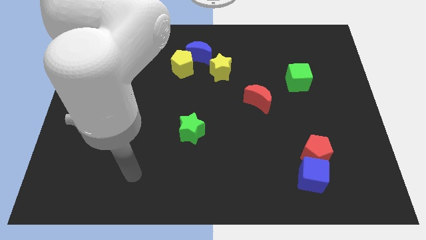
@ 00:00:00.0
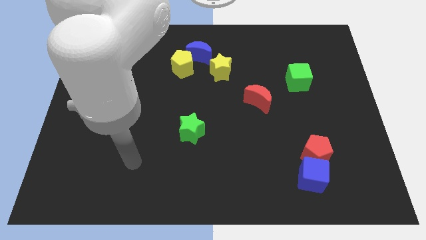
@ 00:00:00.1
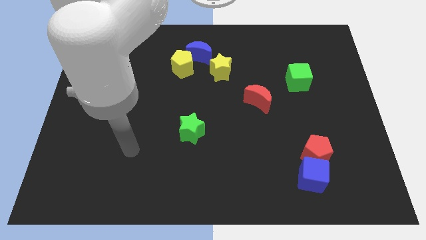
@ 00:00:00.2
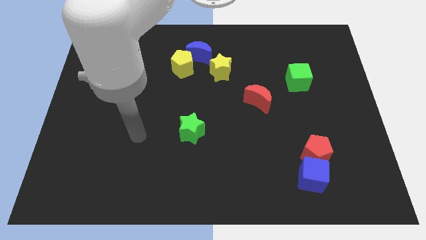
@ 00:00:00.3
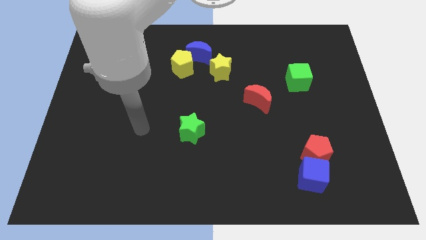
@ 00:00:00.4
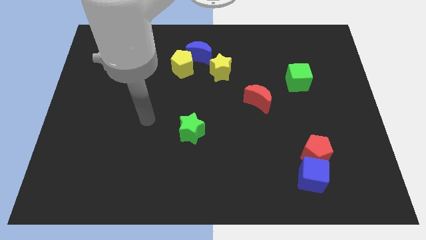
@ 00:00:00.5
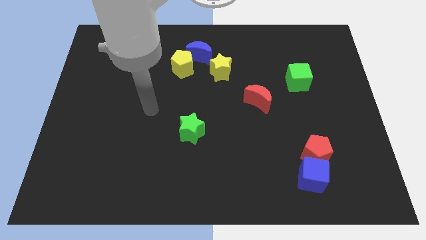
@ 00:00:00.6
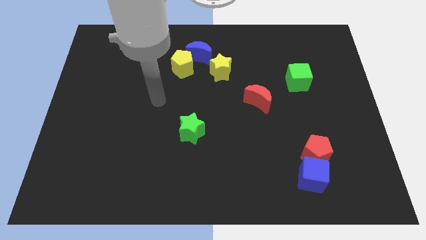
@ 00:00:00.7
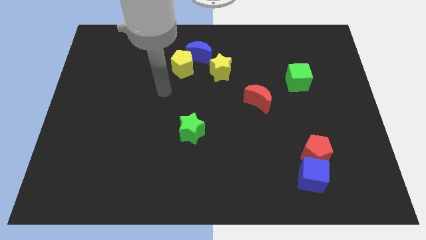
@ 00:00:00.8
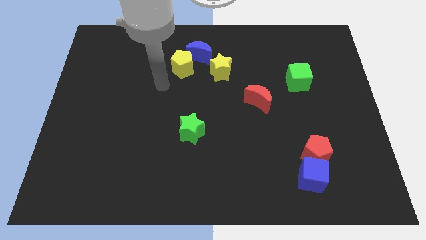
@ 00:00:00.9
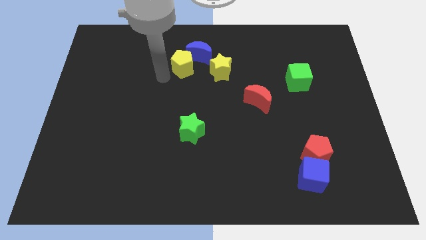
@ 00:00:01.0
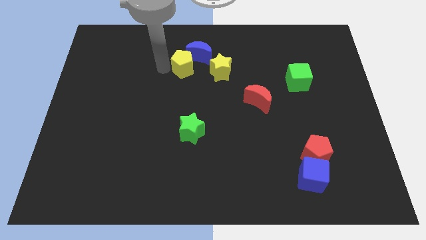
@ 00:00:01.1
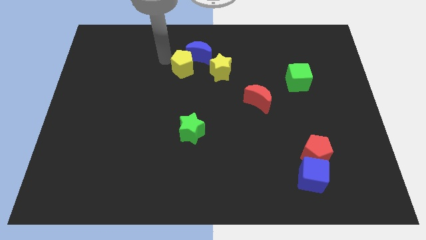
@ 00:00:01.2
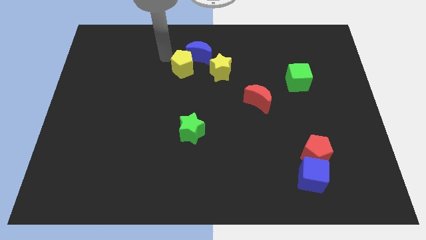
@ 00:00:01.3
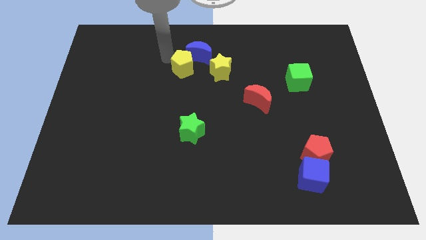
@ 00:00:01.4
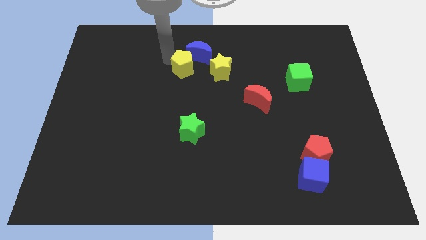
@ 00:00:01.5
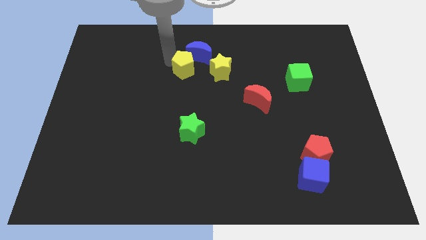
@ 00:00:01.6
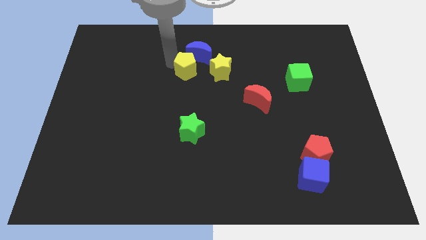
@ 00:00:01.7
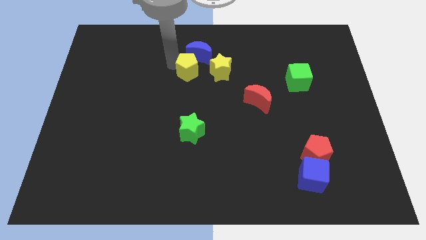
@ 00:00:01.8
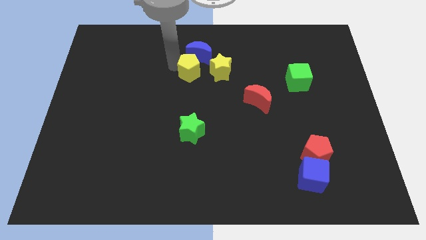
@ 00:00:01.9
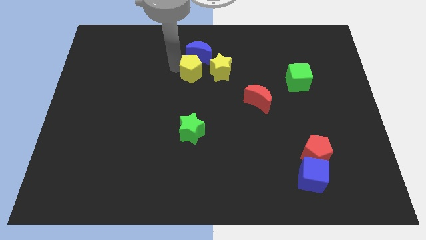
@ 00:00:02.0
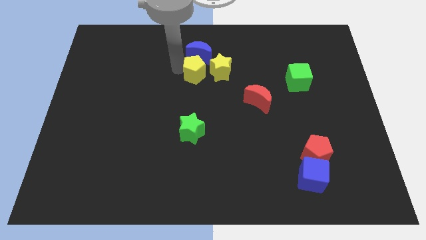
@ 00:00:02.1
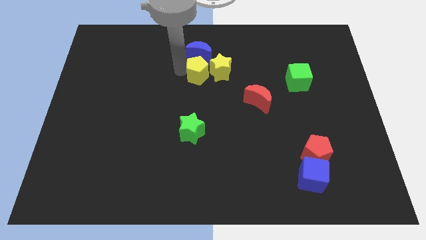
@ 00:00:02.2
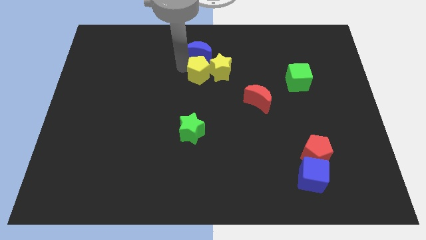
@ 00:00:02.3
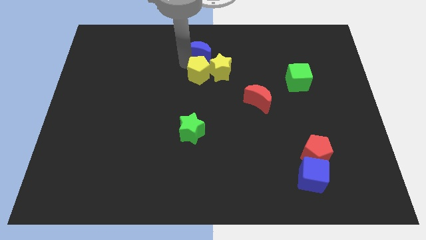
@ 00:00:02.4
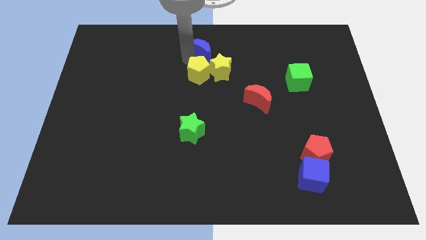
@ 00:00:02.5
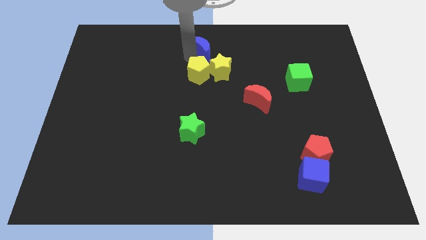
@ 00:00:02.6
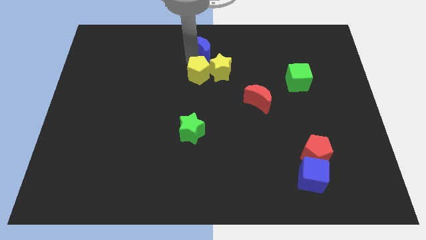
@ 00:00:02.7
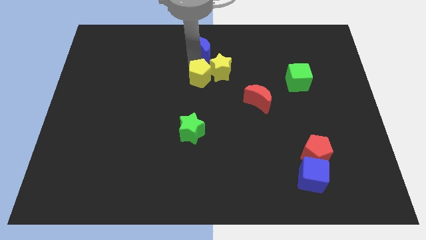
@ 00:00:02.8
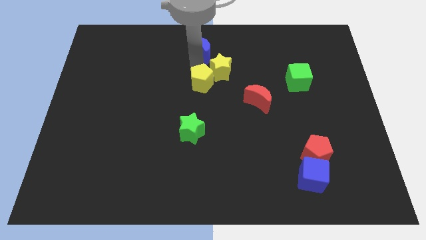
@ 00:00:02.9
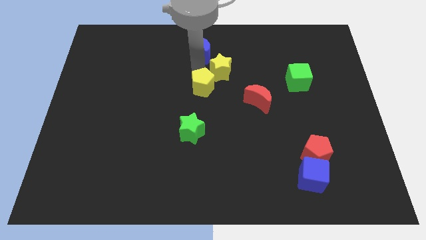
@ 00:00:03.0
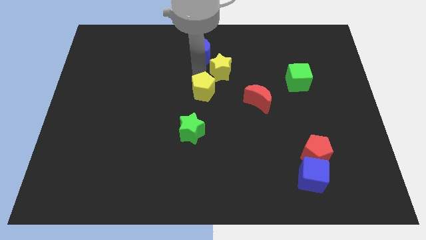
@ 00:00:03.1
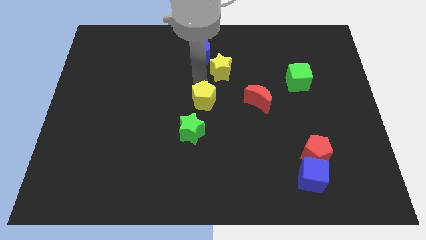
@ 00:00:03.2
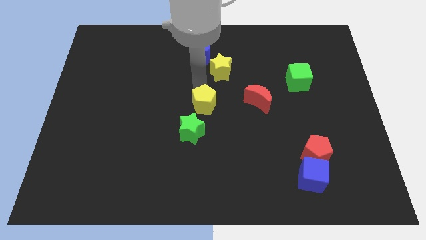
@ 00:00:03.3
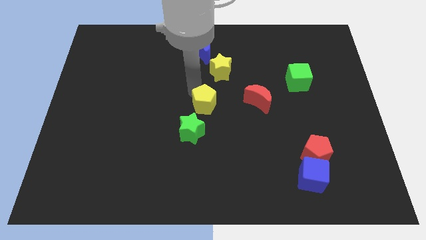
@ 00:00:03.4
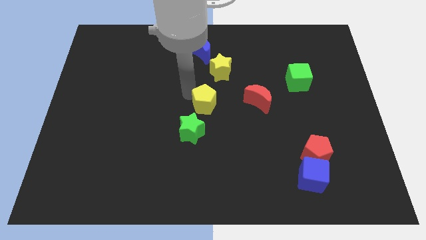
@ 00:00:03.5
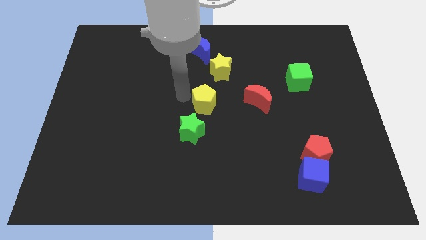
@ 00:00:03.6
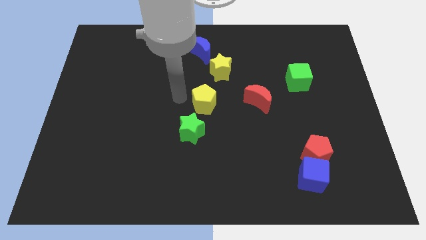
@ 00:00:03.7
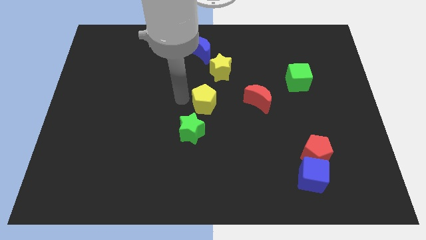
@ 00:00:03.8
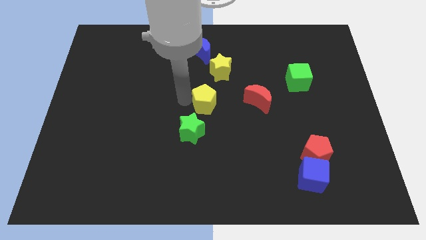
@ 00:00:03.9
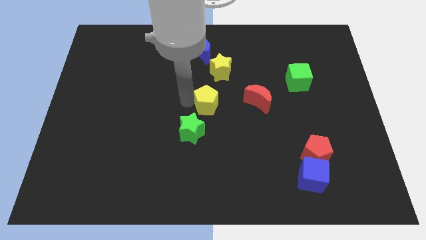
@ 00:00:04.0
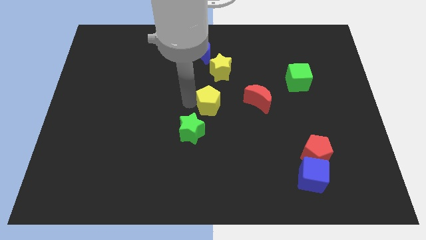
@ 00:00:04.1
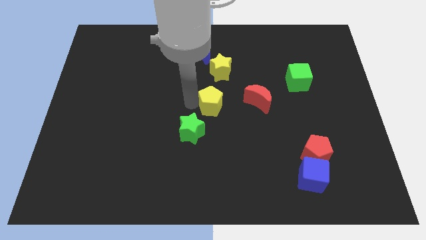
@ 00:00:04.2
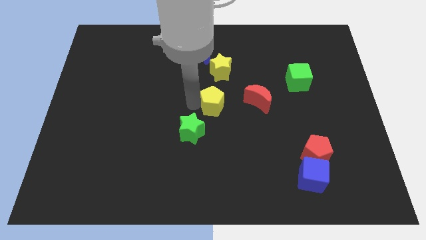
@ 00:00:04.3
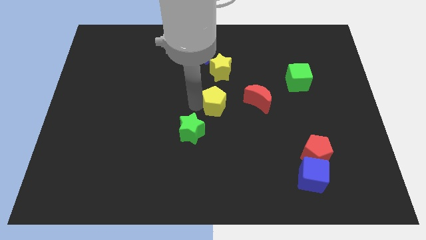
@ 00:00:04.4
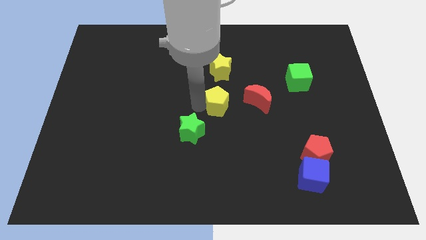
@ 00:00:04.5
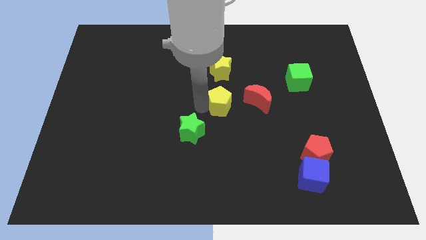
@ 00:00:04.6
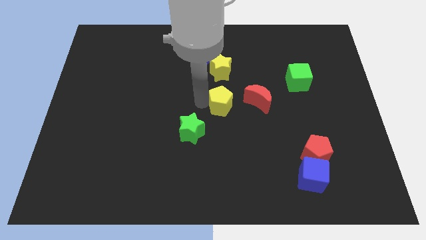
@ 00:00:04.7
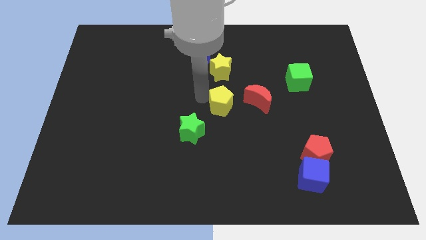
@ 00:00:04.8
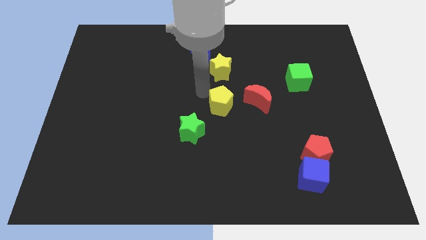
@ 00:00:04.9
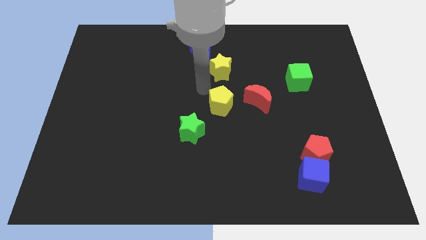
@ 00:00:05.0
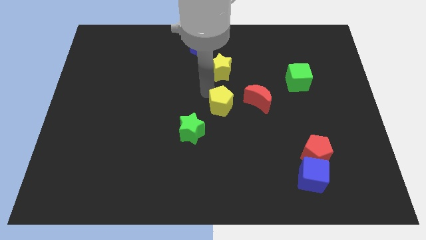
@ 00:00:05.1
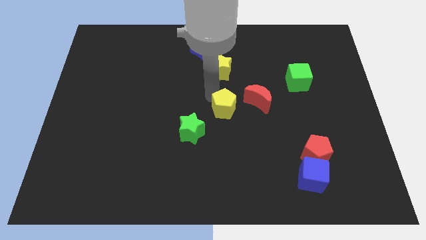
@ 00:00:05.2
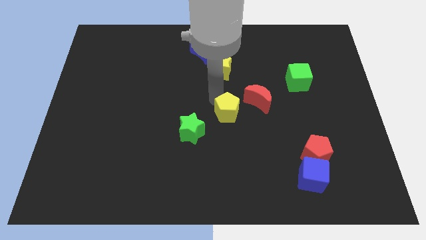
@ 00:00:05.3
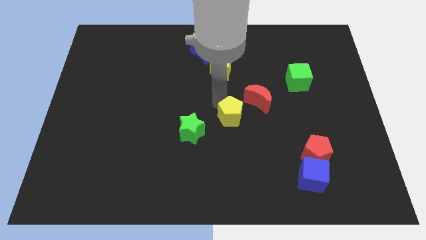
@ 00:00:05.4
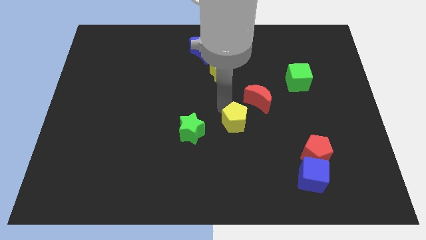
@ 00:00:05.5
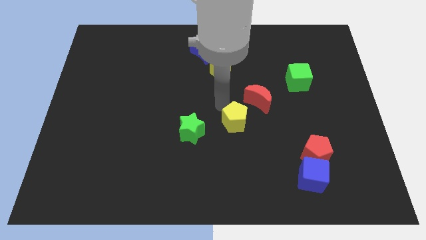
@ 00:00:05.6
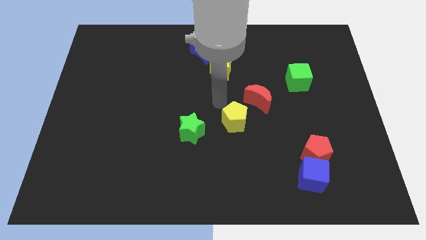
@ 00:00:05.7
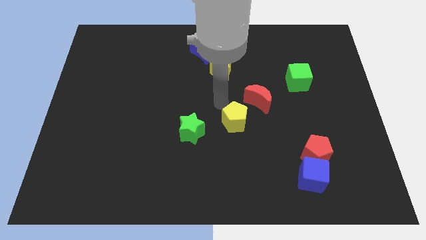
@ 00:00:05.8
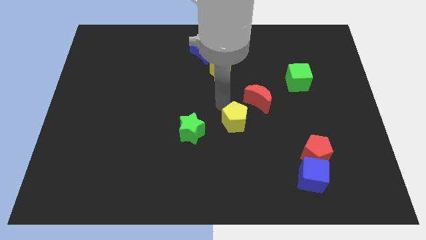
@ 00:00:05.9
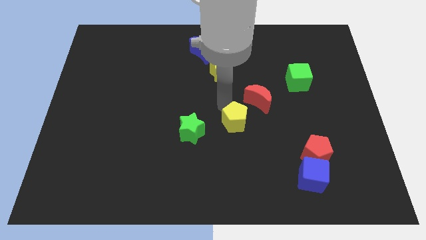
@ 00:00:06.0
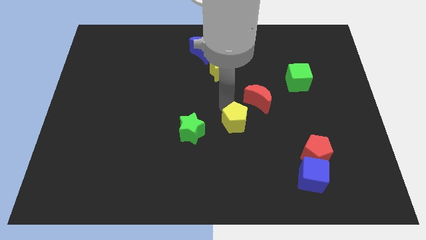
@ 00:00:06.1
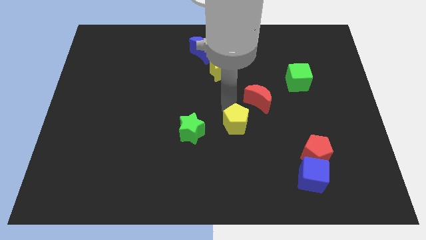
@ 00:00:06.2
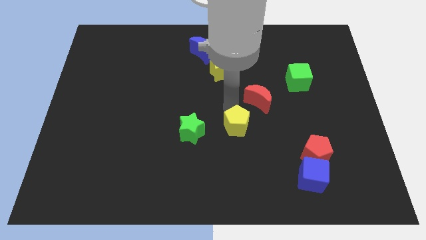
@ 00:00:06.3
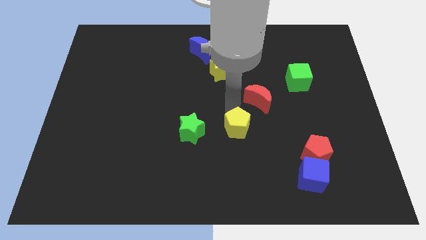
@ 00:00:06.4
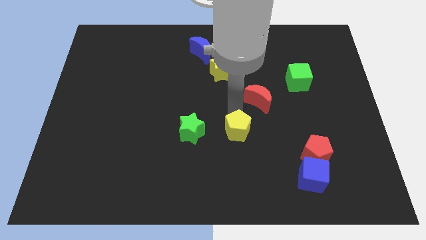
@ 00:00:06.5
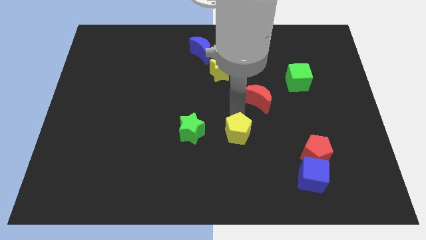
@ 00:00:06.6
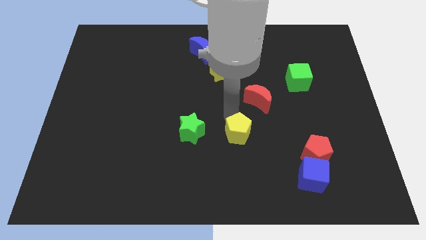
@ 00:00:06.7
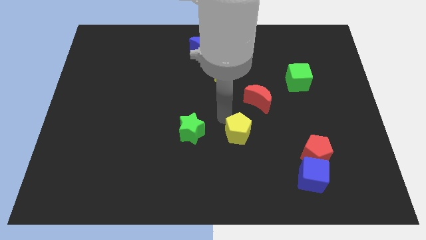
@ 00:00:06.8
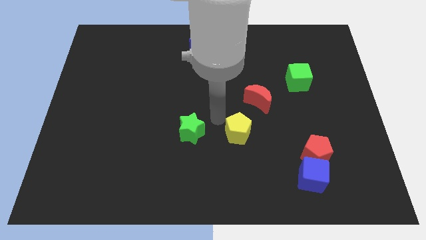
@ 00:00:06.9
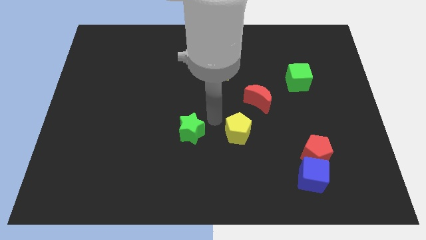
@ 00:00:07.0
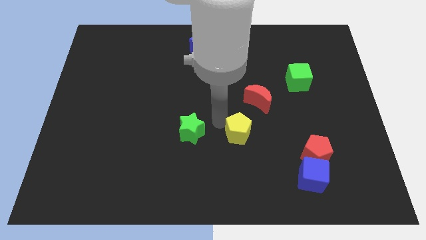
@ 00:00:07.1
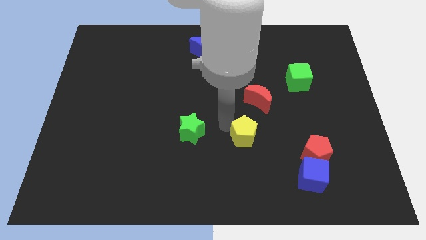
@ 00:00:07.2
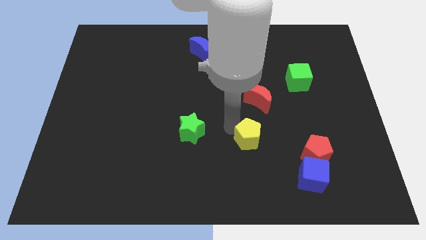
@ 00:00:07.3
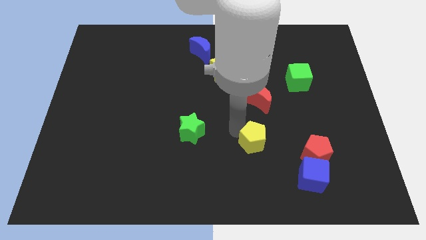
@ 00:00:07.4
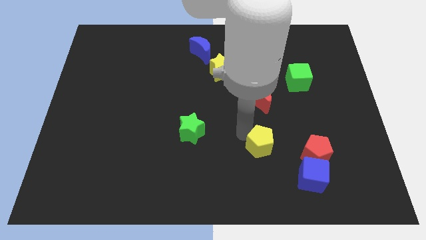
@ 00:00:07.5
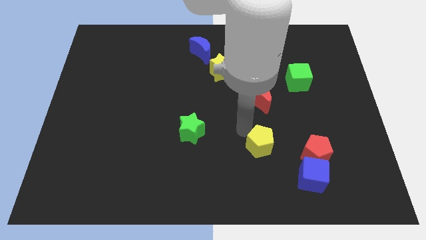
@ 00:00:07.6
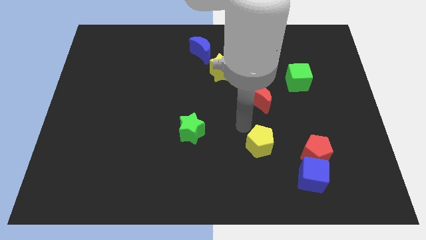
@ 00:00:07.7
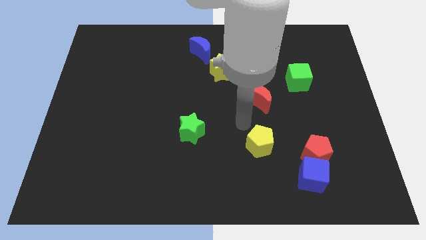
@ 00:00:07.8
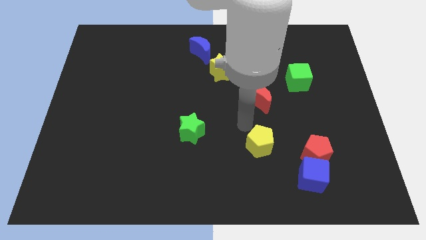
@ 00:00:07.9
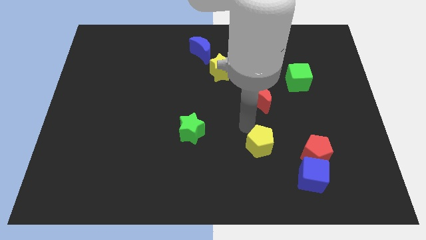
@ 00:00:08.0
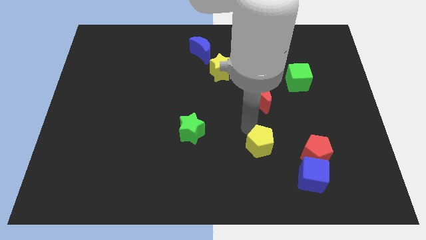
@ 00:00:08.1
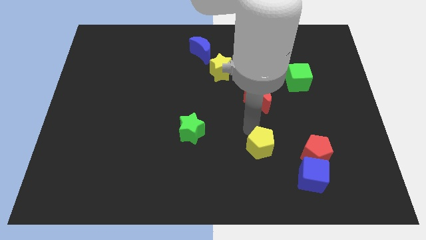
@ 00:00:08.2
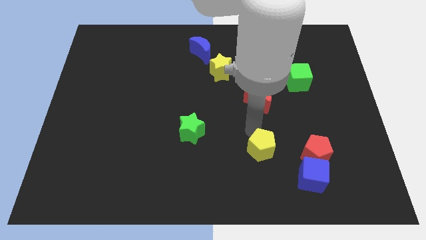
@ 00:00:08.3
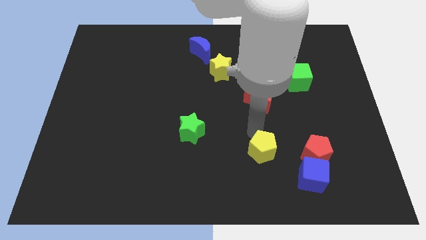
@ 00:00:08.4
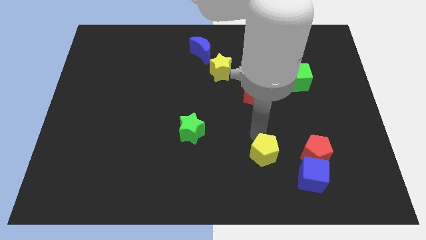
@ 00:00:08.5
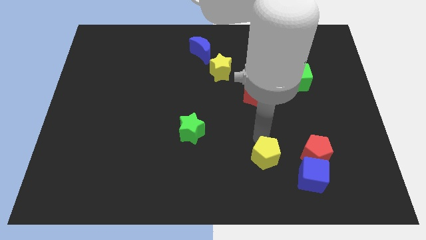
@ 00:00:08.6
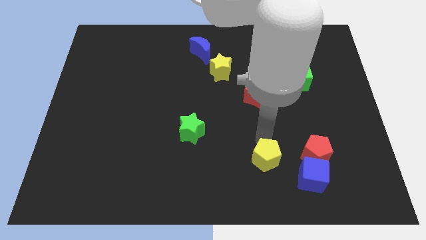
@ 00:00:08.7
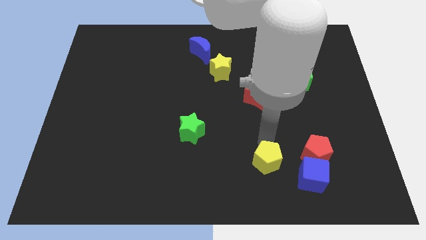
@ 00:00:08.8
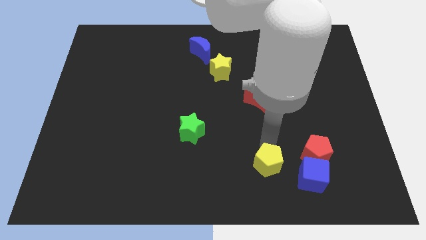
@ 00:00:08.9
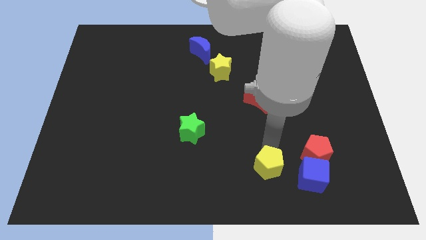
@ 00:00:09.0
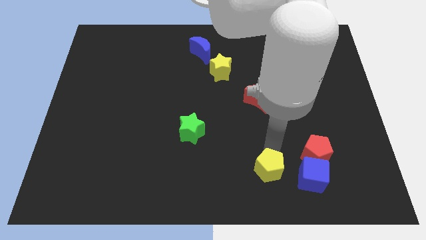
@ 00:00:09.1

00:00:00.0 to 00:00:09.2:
move the yellow pentagon diagonally down and to the left of the red pentagon
